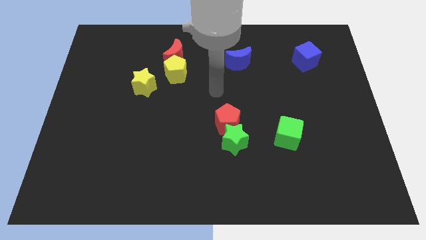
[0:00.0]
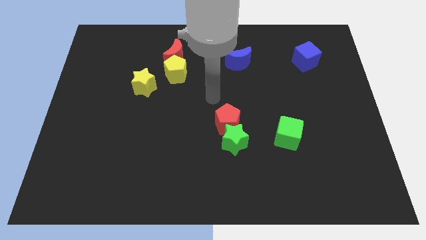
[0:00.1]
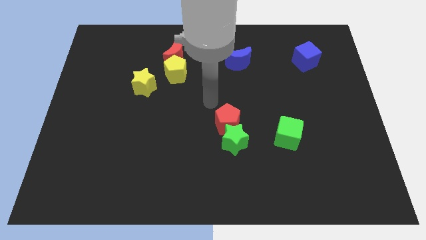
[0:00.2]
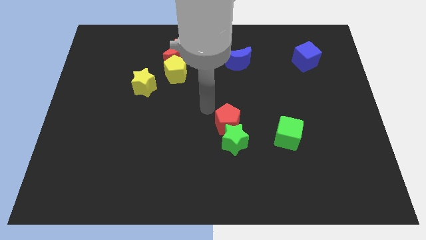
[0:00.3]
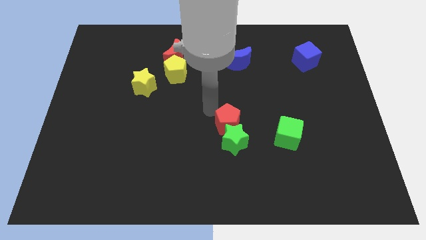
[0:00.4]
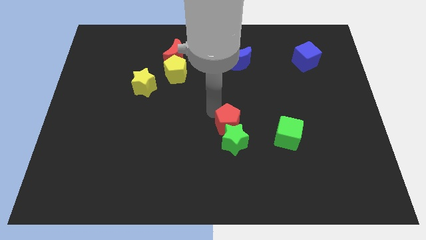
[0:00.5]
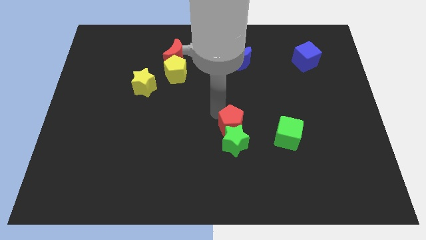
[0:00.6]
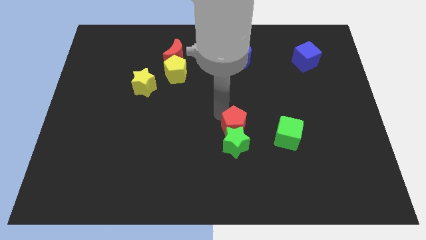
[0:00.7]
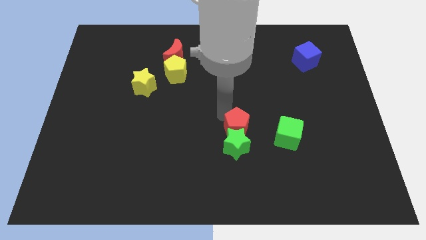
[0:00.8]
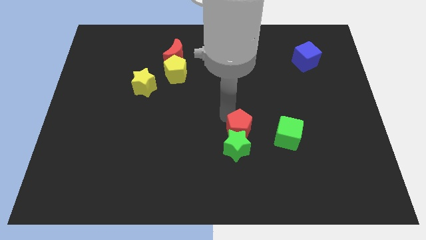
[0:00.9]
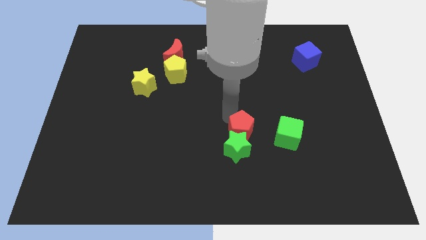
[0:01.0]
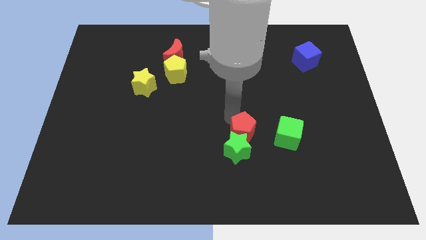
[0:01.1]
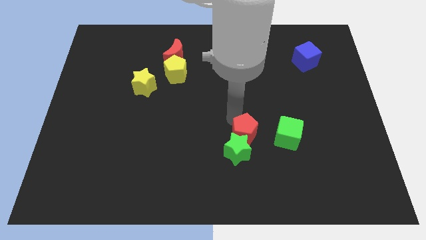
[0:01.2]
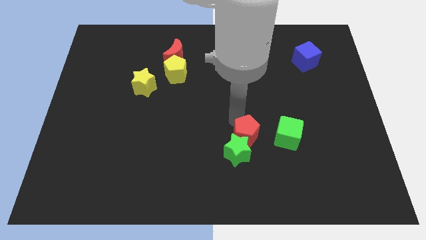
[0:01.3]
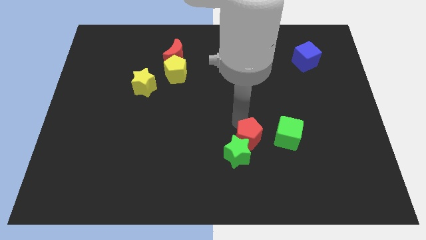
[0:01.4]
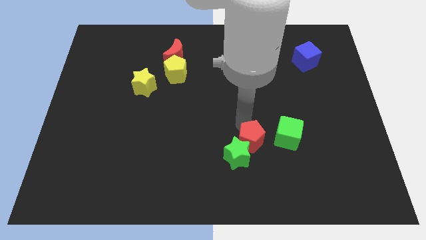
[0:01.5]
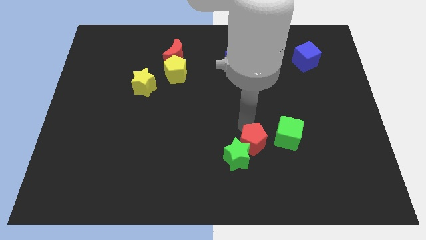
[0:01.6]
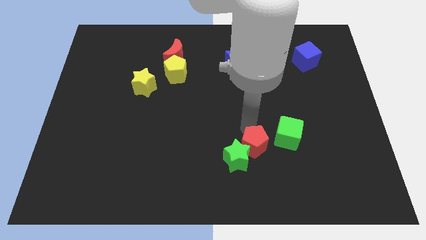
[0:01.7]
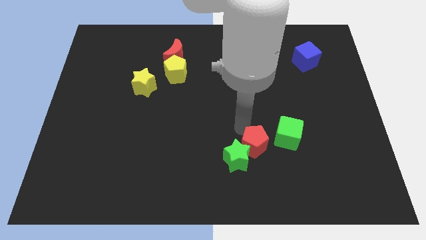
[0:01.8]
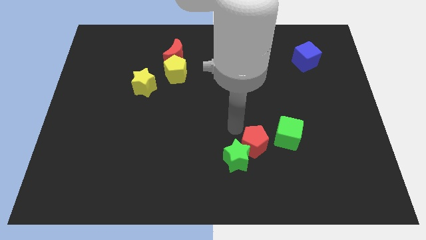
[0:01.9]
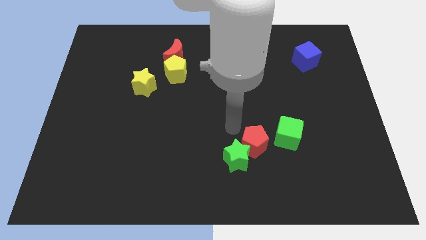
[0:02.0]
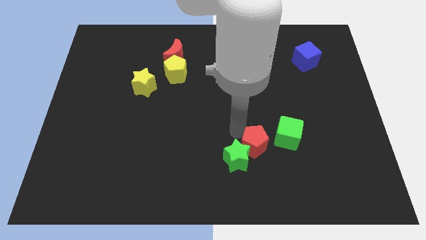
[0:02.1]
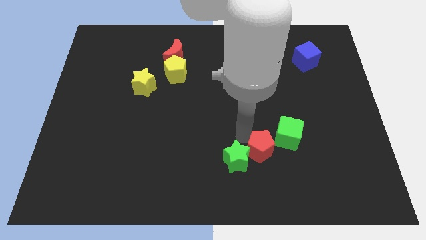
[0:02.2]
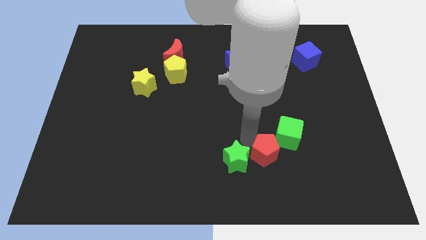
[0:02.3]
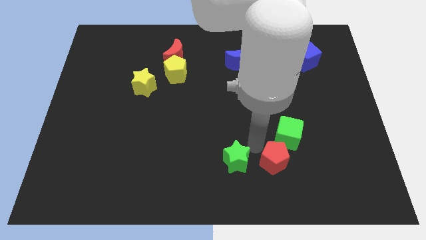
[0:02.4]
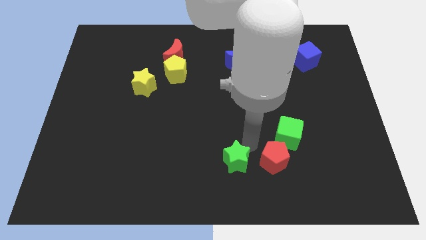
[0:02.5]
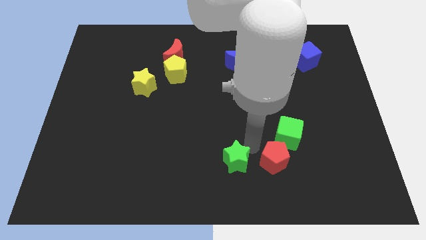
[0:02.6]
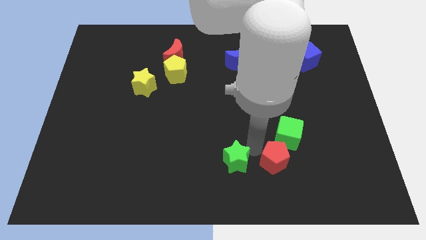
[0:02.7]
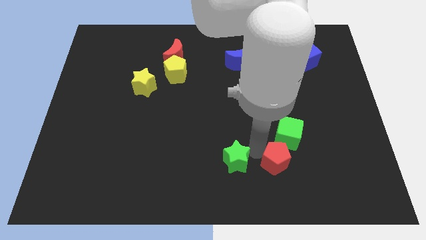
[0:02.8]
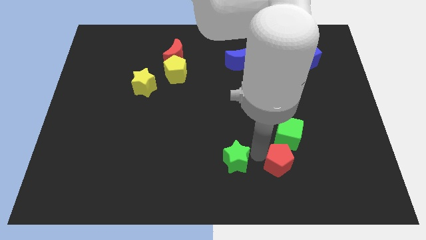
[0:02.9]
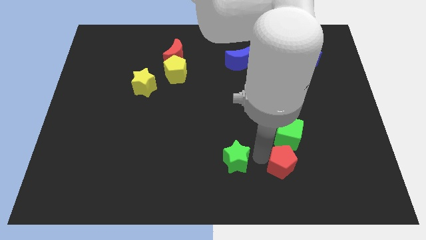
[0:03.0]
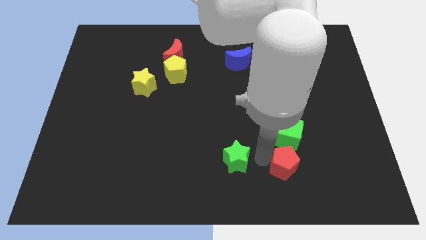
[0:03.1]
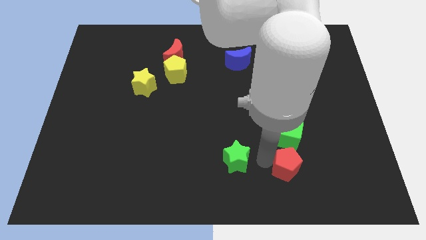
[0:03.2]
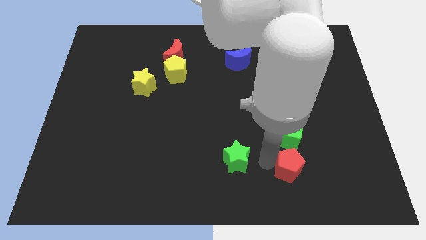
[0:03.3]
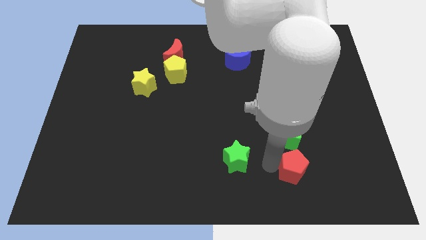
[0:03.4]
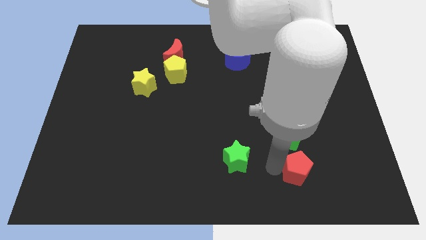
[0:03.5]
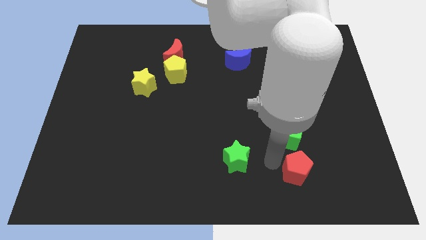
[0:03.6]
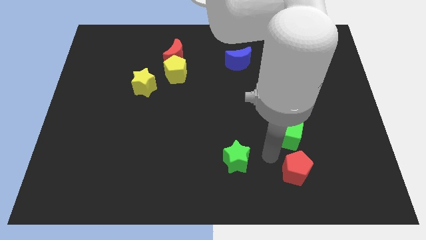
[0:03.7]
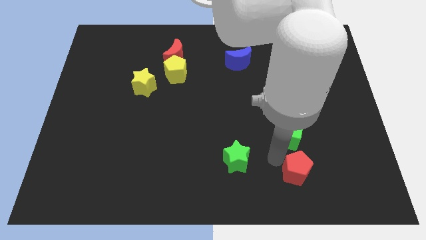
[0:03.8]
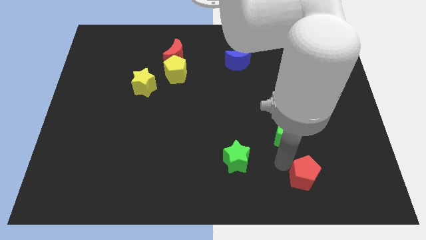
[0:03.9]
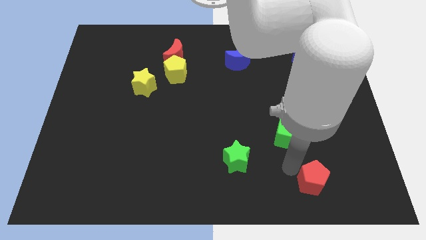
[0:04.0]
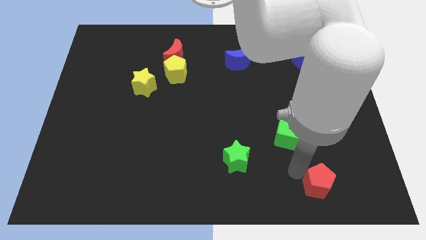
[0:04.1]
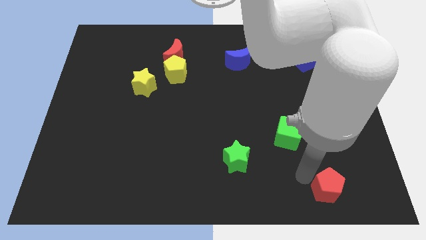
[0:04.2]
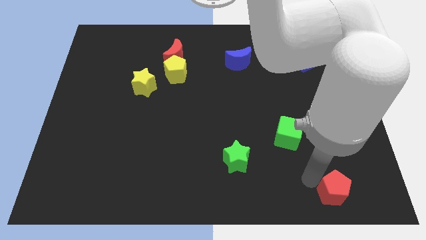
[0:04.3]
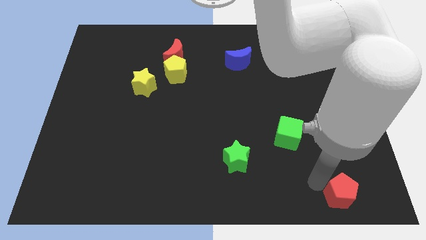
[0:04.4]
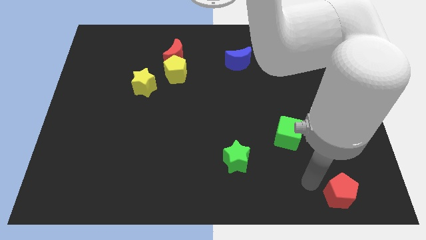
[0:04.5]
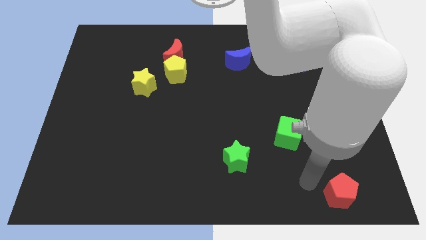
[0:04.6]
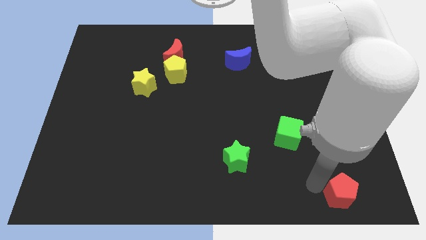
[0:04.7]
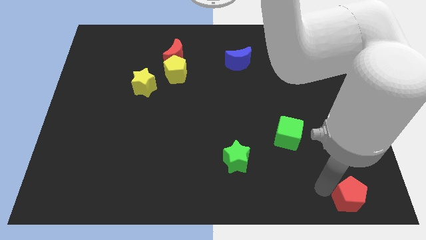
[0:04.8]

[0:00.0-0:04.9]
put the red pentagon to the bottom right

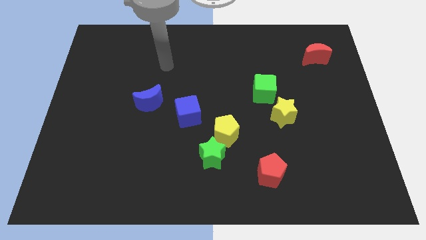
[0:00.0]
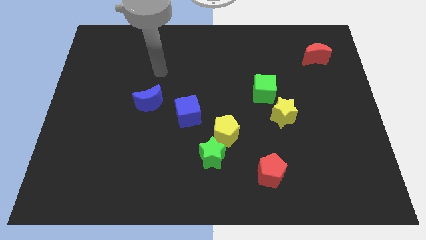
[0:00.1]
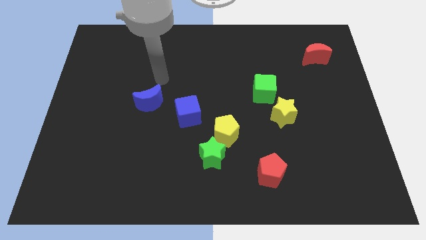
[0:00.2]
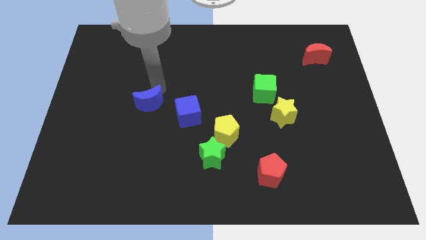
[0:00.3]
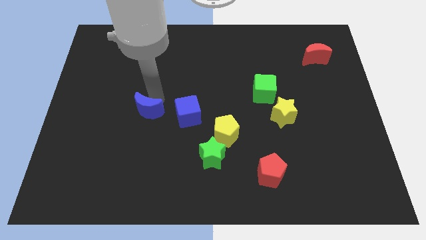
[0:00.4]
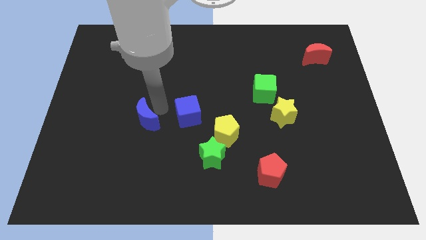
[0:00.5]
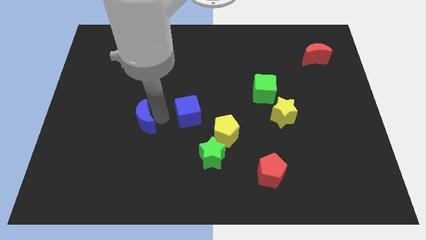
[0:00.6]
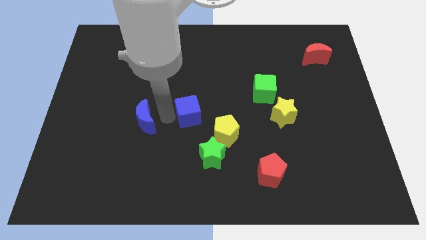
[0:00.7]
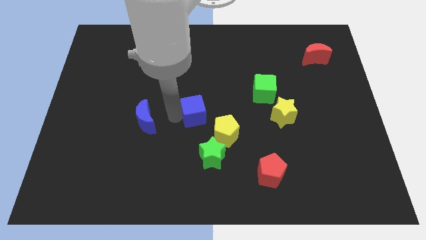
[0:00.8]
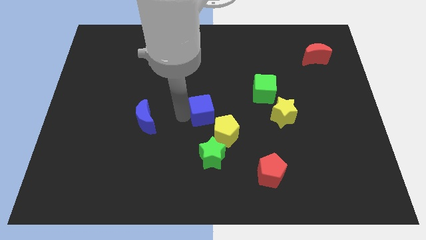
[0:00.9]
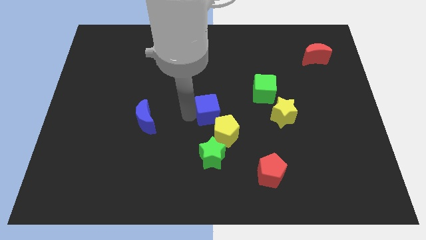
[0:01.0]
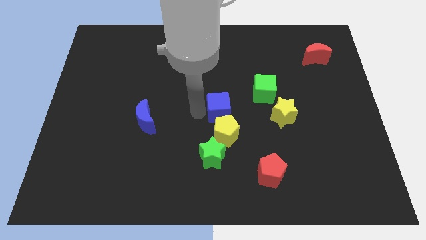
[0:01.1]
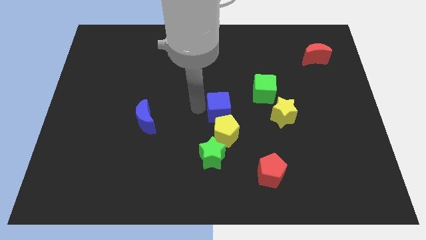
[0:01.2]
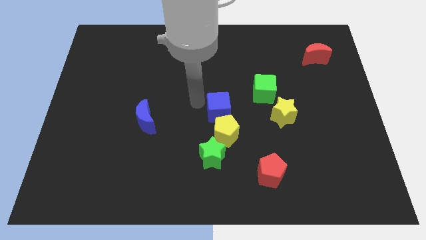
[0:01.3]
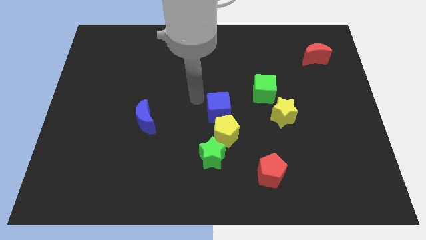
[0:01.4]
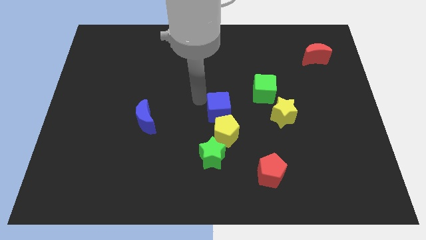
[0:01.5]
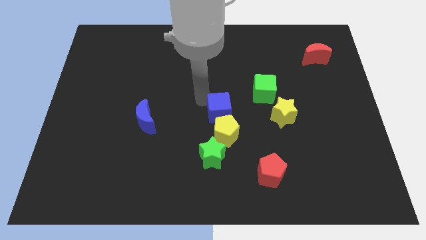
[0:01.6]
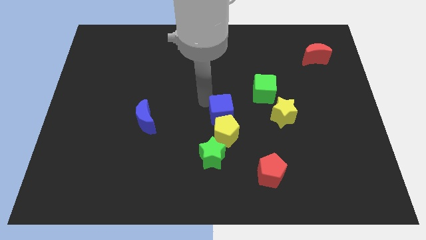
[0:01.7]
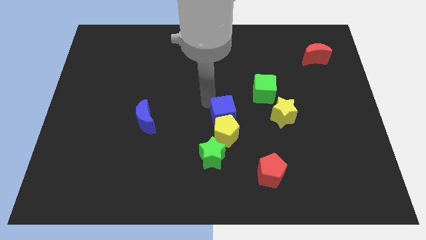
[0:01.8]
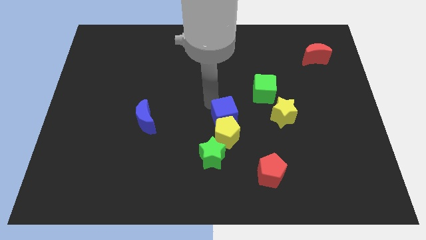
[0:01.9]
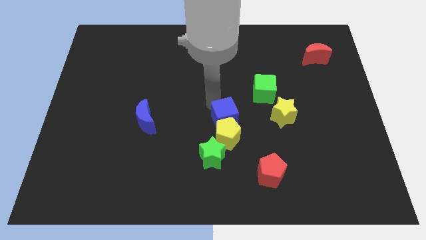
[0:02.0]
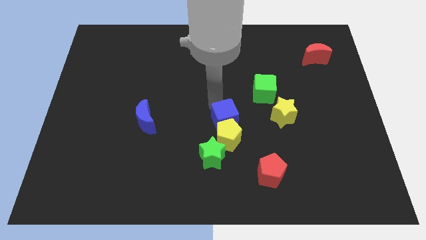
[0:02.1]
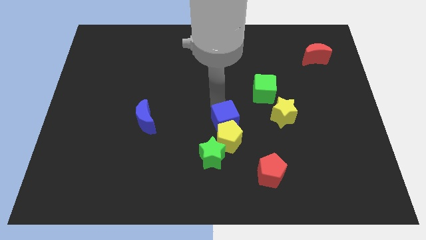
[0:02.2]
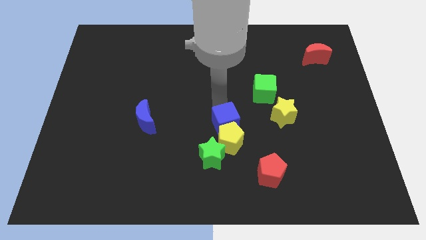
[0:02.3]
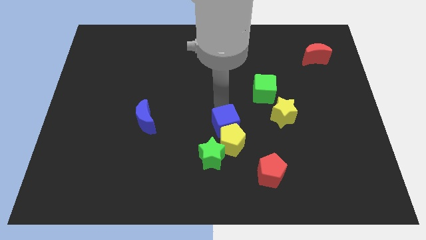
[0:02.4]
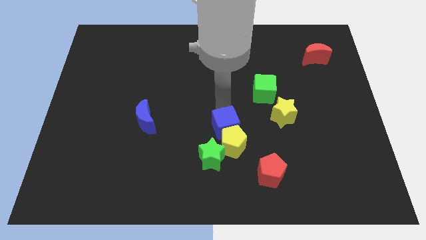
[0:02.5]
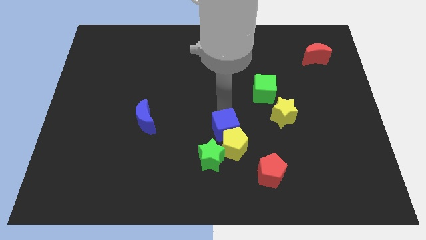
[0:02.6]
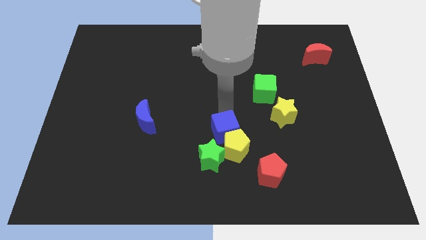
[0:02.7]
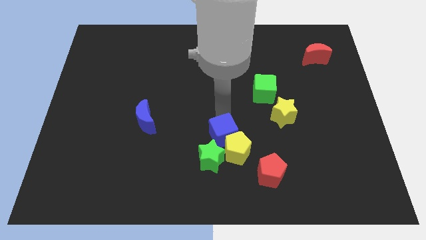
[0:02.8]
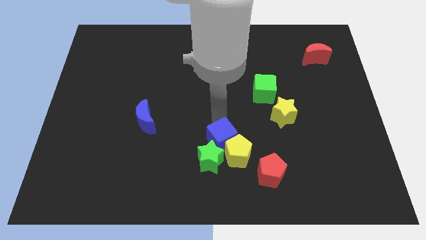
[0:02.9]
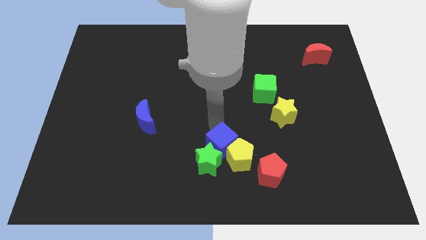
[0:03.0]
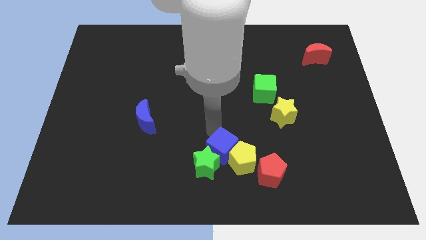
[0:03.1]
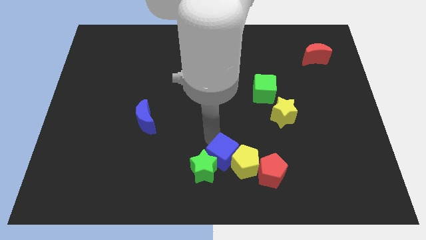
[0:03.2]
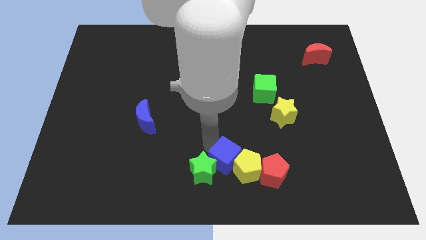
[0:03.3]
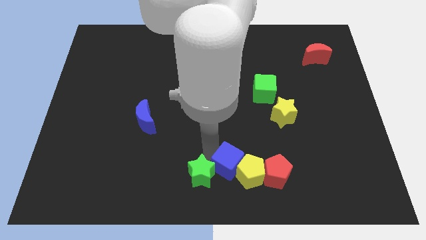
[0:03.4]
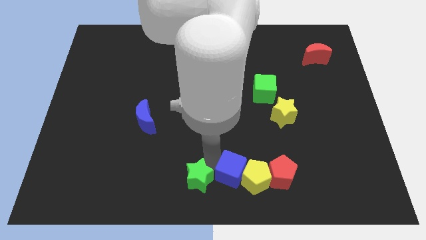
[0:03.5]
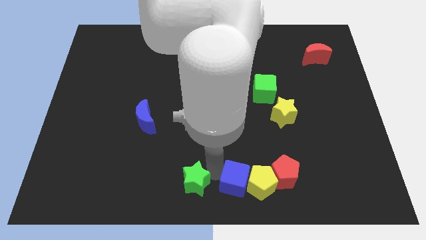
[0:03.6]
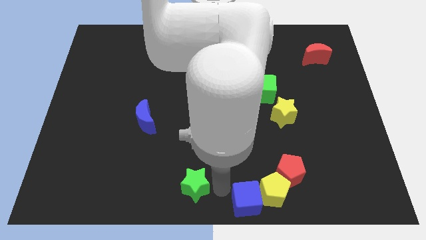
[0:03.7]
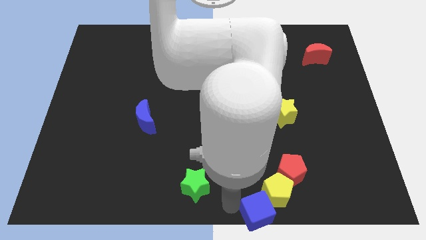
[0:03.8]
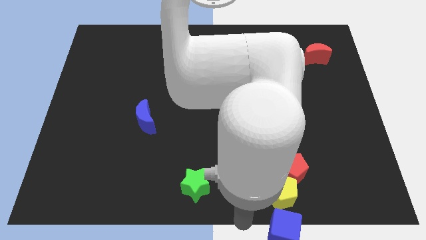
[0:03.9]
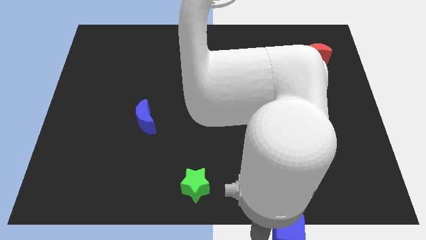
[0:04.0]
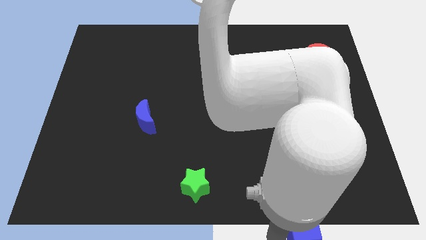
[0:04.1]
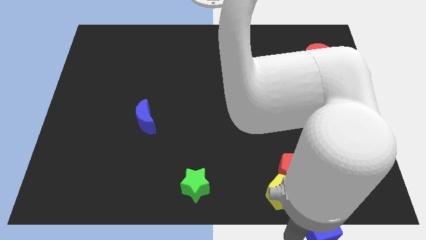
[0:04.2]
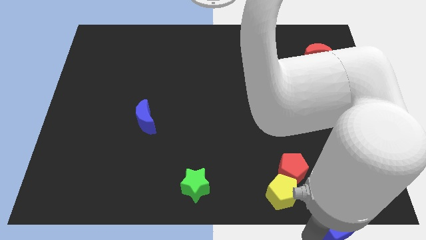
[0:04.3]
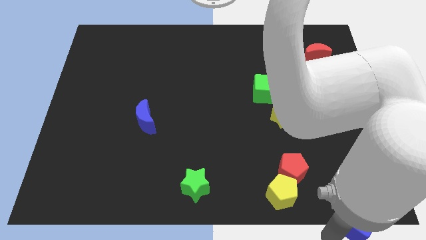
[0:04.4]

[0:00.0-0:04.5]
put the blue cube to the bottom right corner
